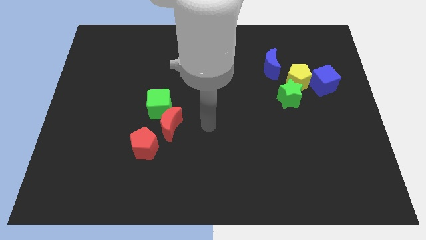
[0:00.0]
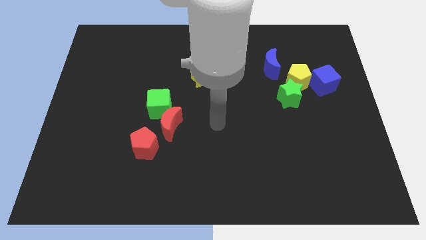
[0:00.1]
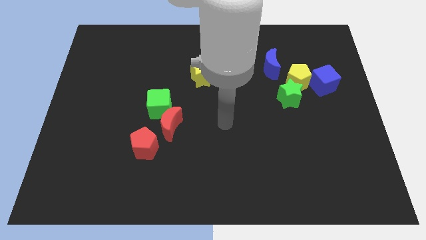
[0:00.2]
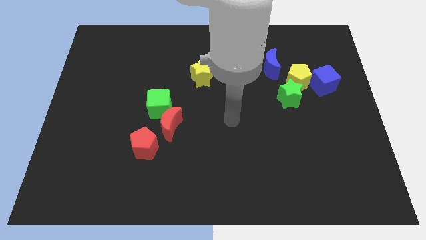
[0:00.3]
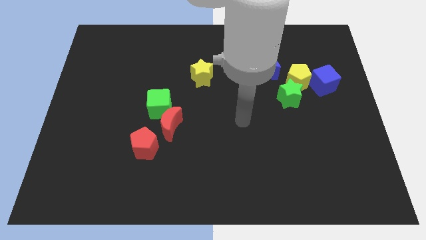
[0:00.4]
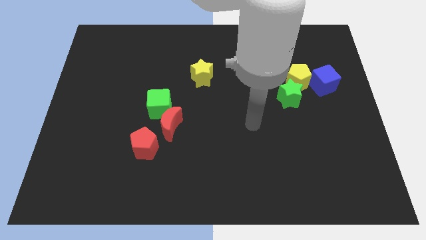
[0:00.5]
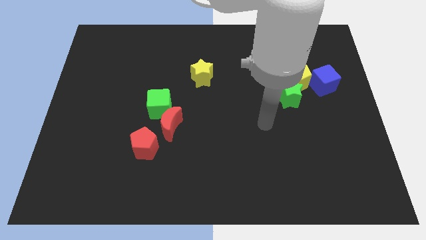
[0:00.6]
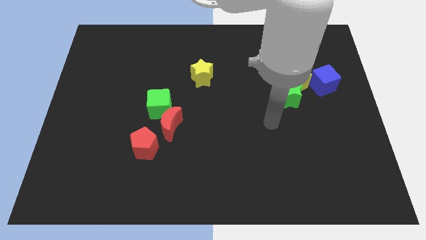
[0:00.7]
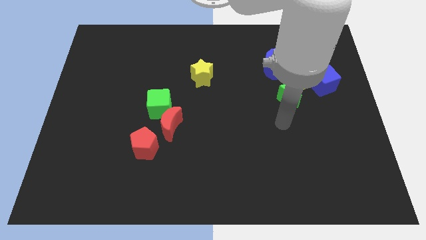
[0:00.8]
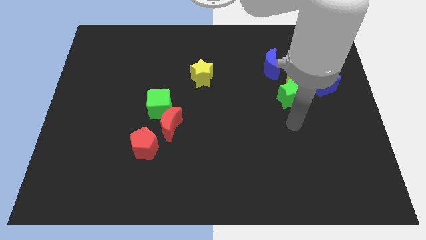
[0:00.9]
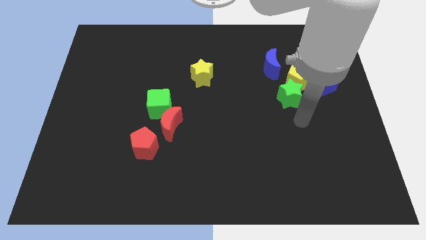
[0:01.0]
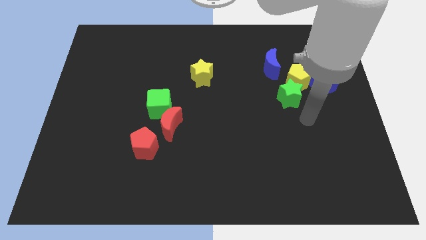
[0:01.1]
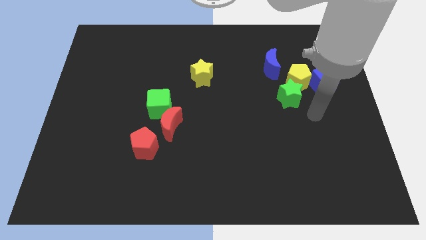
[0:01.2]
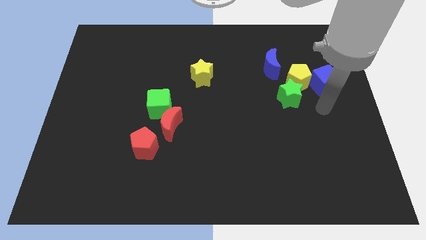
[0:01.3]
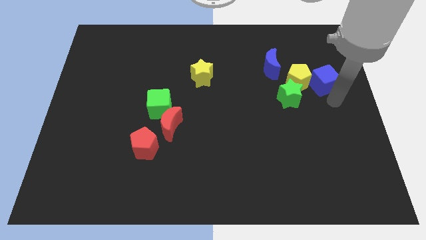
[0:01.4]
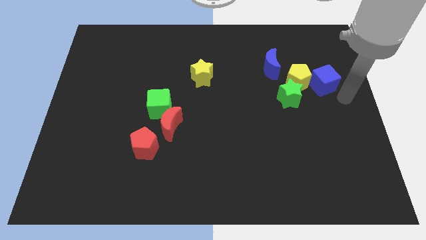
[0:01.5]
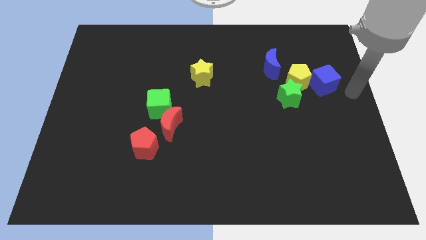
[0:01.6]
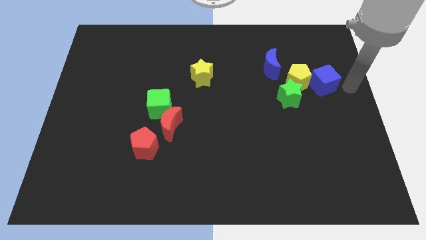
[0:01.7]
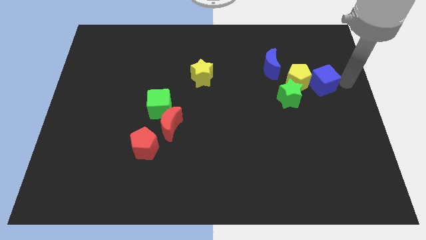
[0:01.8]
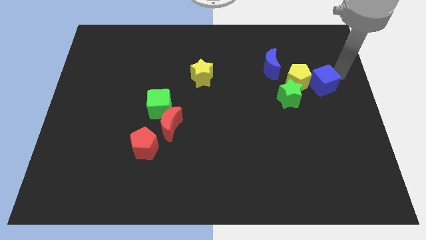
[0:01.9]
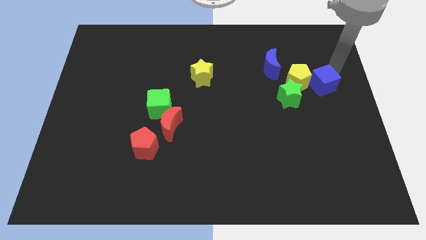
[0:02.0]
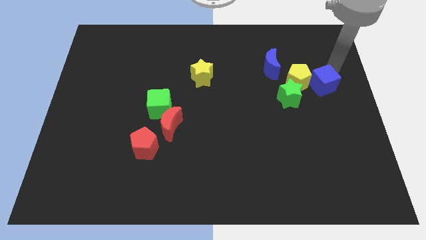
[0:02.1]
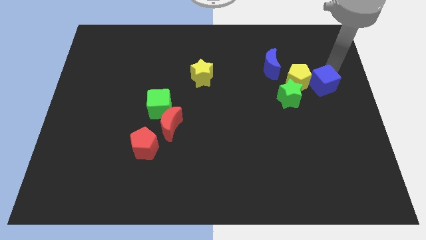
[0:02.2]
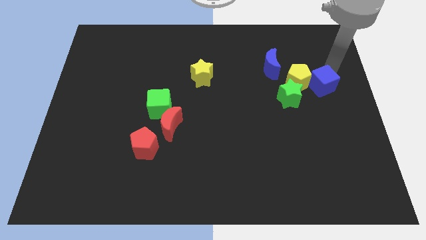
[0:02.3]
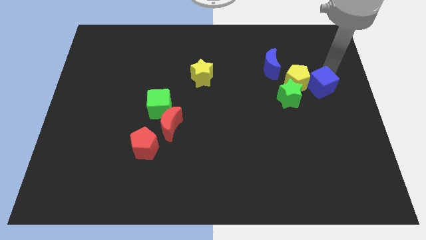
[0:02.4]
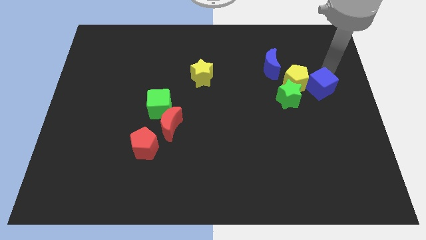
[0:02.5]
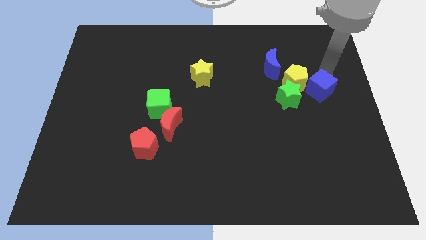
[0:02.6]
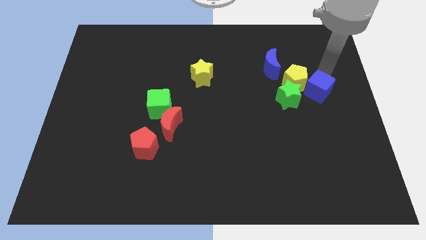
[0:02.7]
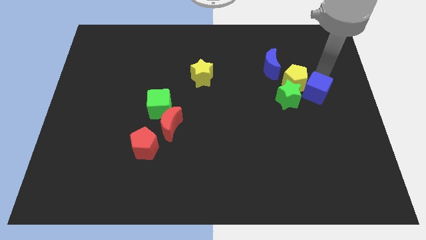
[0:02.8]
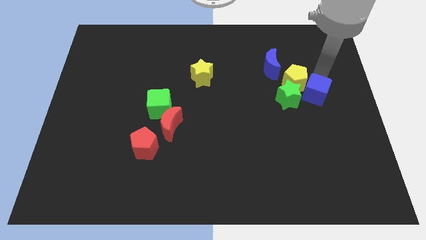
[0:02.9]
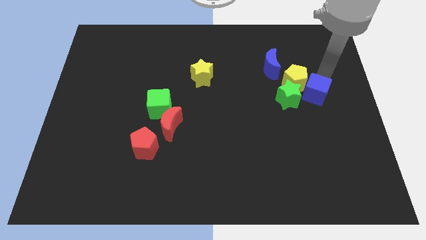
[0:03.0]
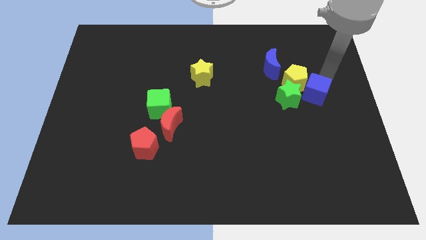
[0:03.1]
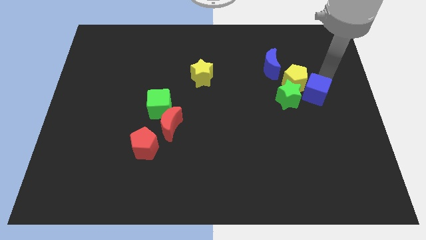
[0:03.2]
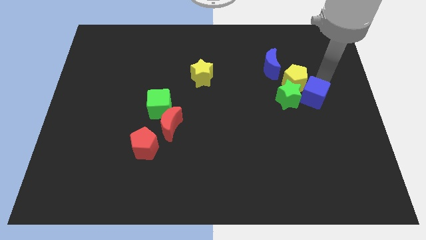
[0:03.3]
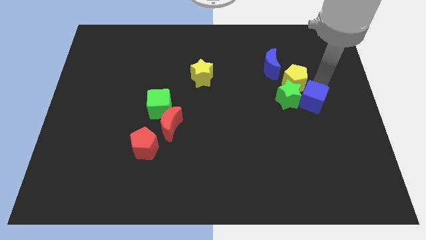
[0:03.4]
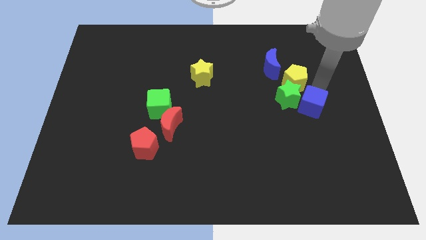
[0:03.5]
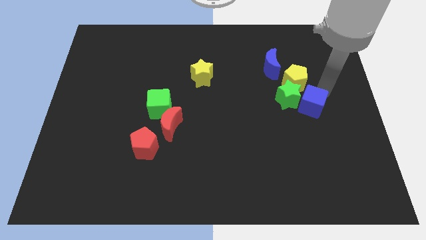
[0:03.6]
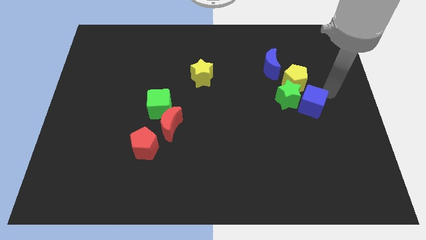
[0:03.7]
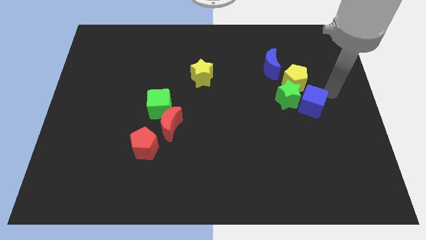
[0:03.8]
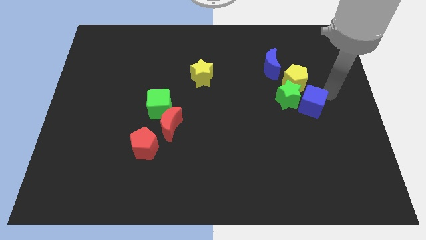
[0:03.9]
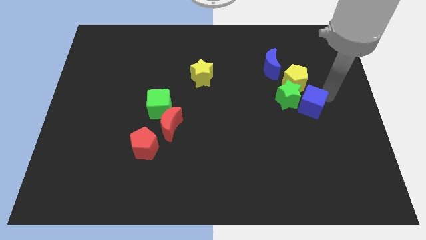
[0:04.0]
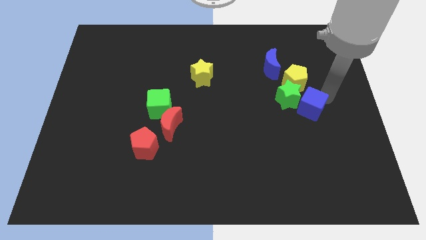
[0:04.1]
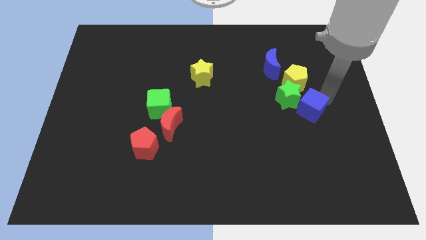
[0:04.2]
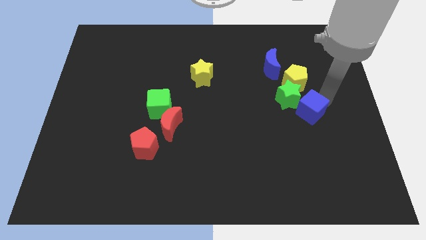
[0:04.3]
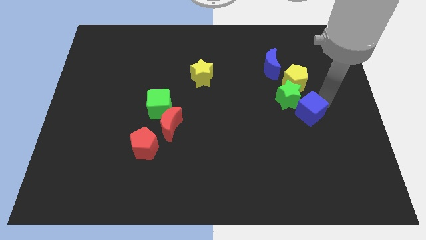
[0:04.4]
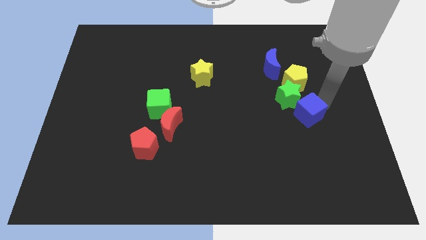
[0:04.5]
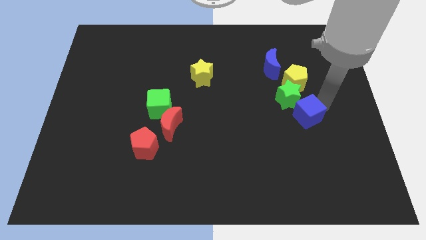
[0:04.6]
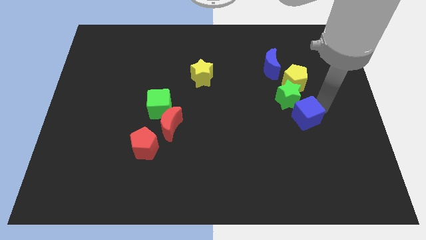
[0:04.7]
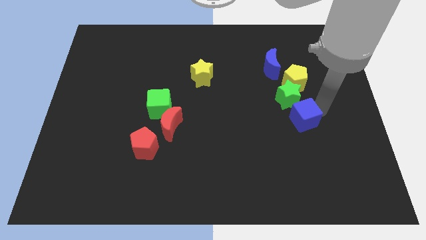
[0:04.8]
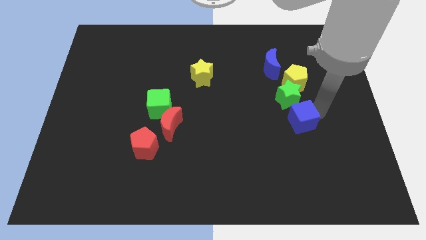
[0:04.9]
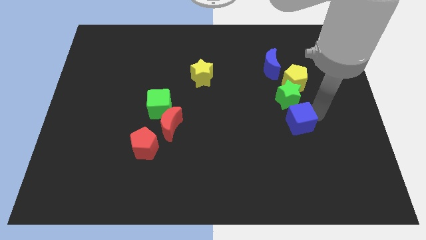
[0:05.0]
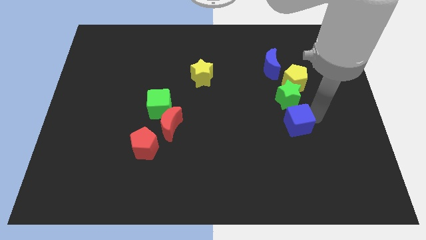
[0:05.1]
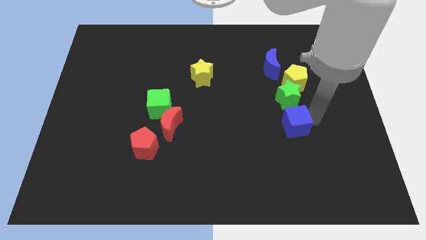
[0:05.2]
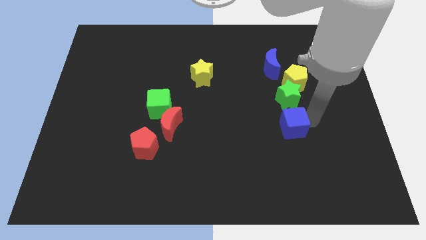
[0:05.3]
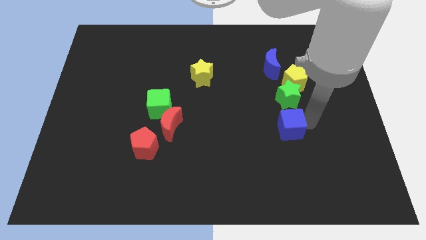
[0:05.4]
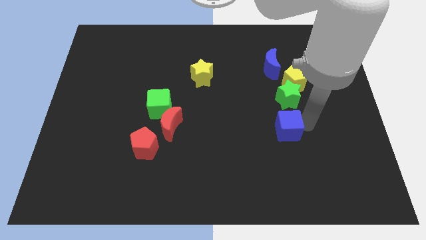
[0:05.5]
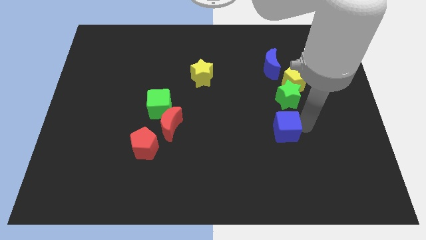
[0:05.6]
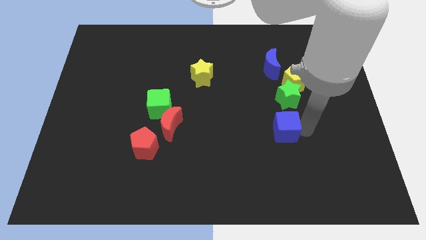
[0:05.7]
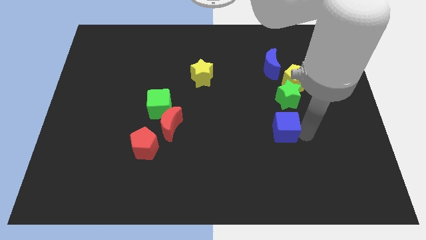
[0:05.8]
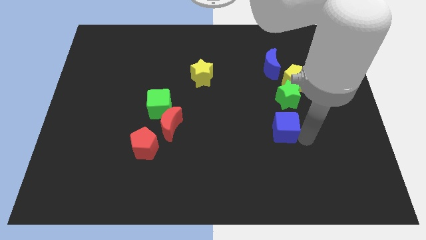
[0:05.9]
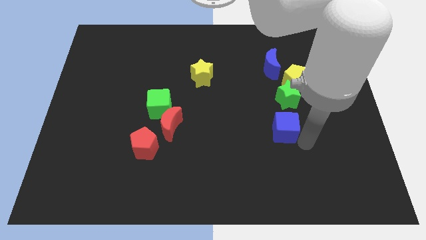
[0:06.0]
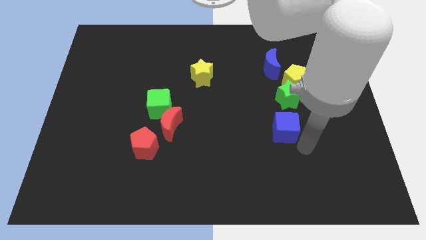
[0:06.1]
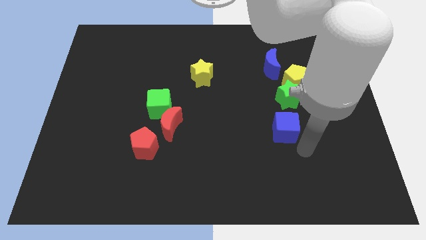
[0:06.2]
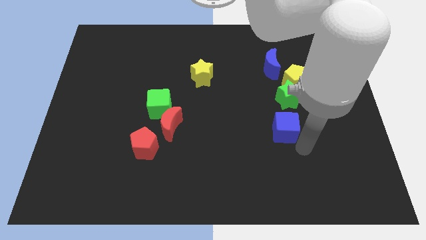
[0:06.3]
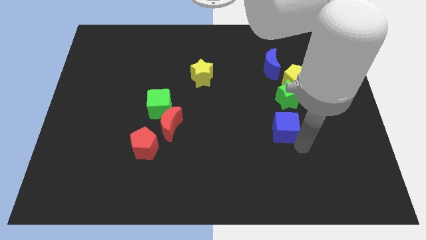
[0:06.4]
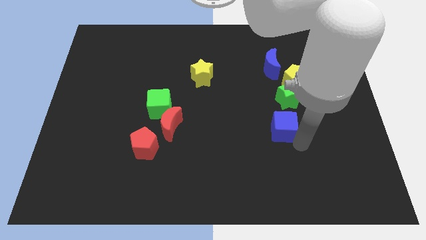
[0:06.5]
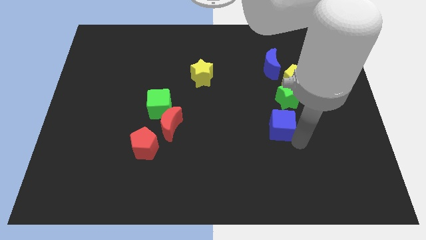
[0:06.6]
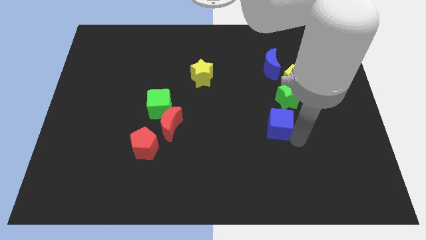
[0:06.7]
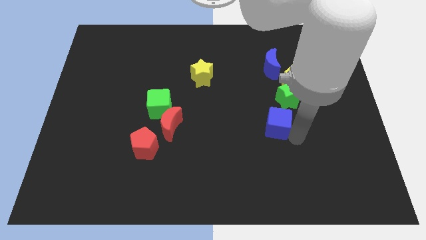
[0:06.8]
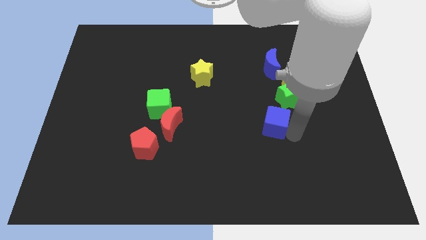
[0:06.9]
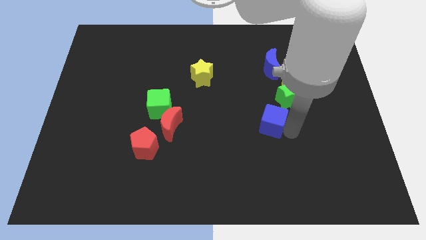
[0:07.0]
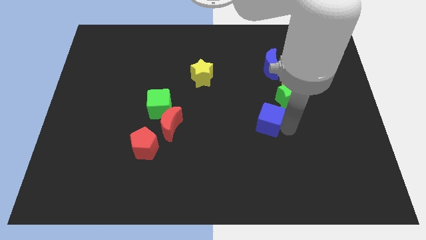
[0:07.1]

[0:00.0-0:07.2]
move the blue cube somewhat to the left

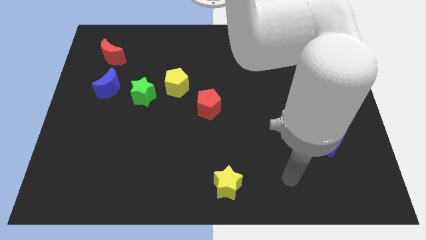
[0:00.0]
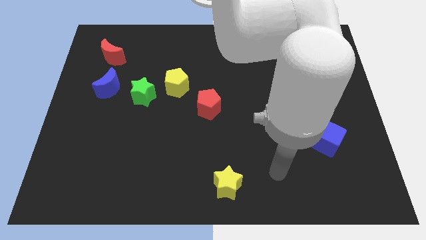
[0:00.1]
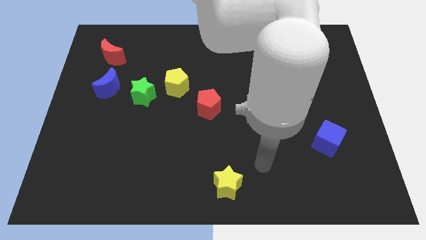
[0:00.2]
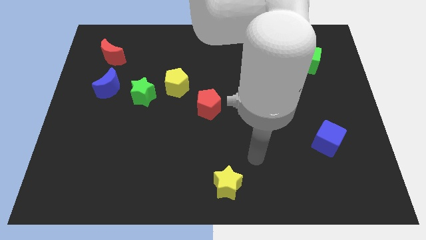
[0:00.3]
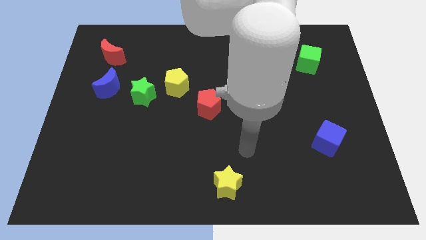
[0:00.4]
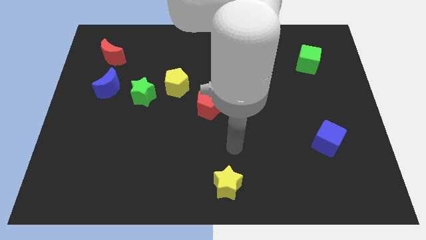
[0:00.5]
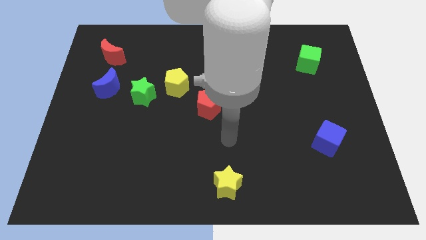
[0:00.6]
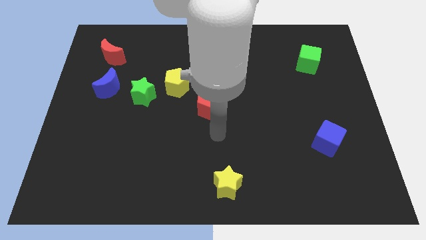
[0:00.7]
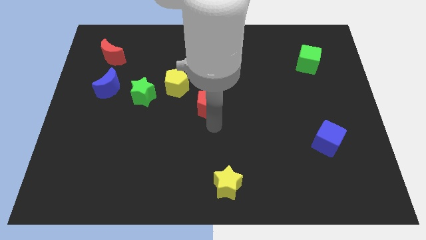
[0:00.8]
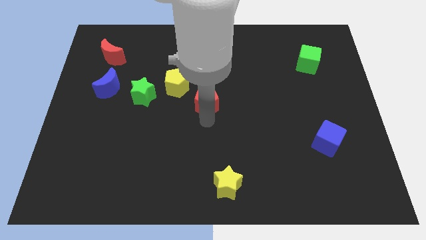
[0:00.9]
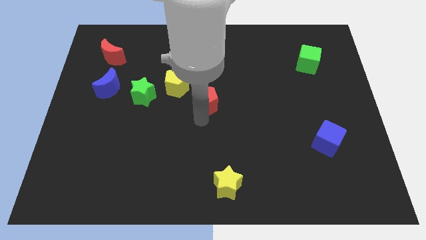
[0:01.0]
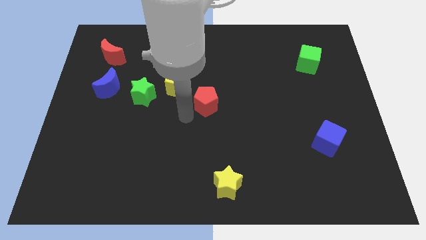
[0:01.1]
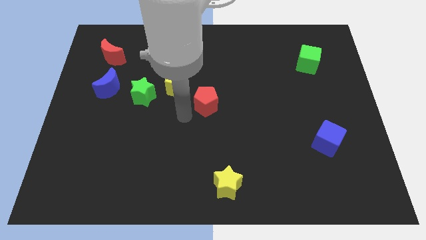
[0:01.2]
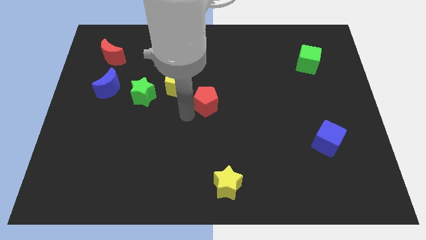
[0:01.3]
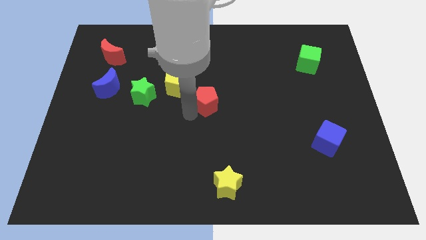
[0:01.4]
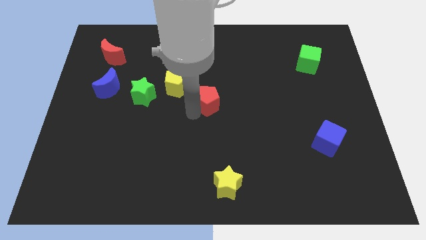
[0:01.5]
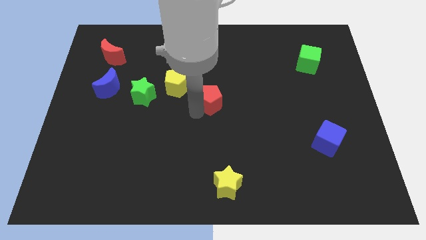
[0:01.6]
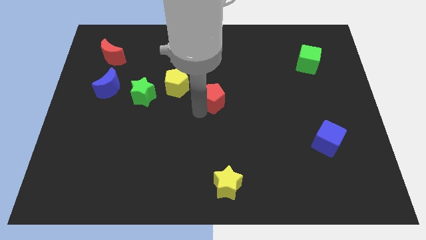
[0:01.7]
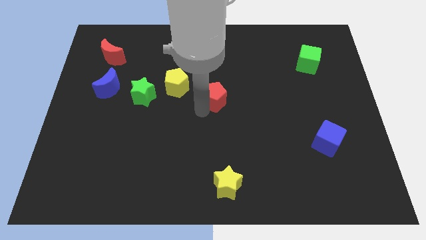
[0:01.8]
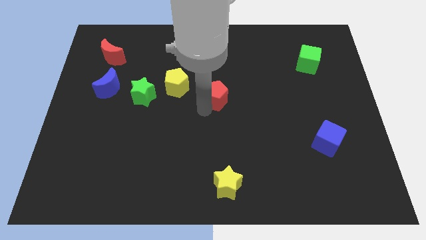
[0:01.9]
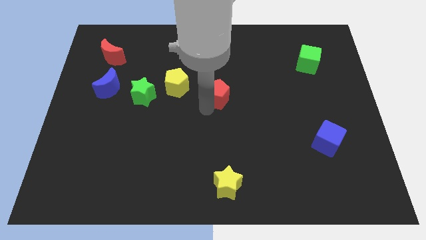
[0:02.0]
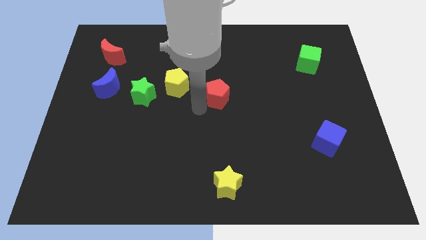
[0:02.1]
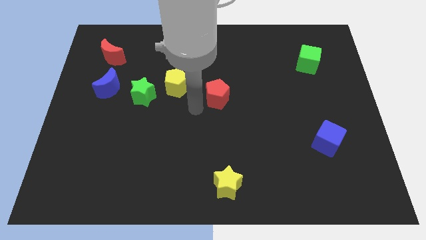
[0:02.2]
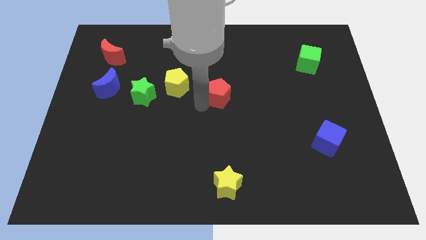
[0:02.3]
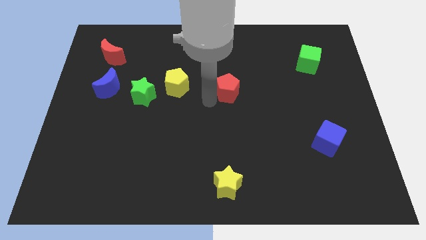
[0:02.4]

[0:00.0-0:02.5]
slide the red pentagon slightly upwards and right diagonally
